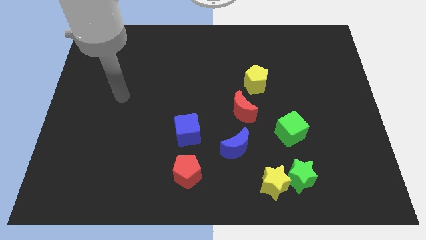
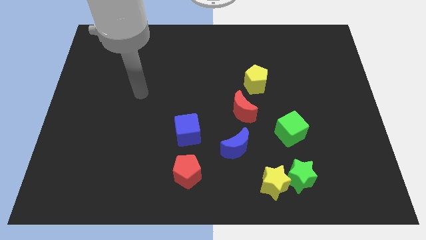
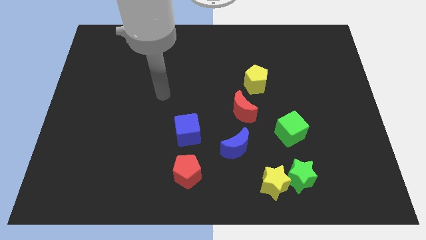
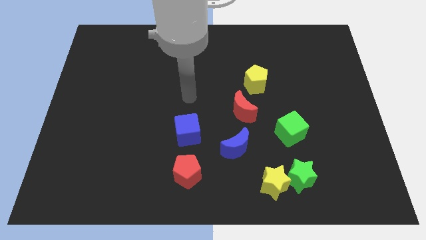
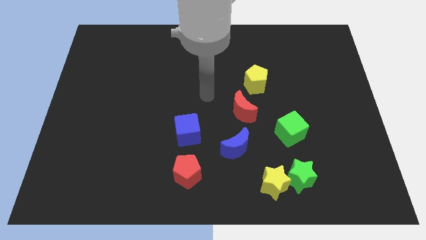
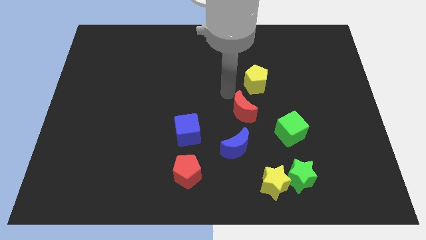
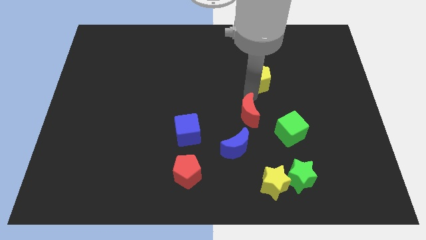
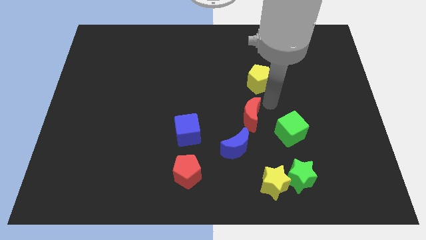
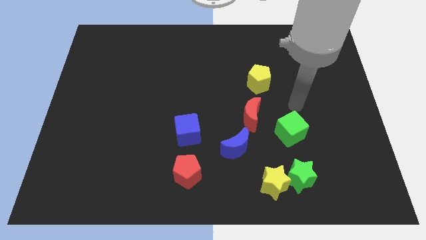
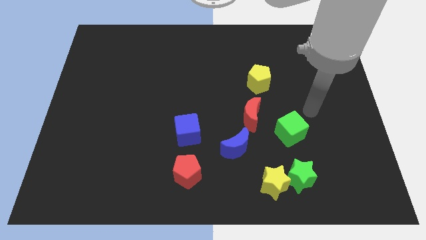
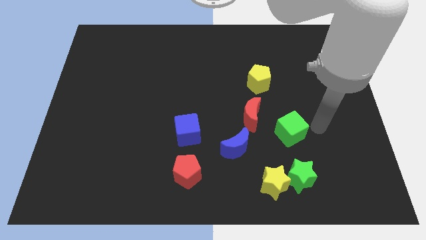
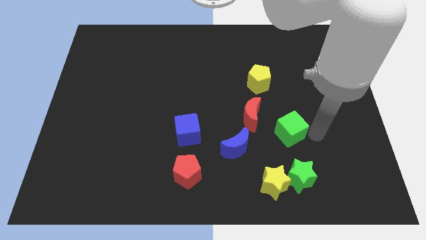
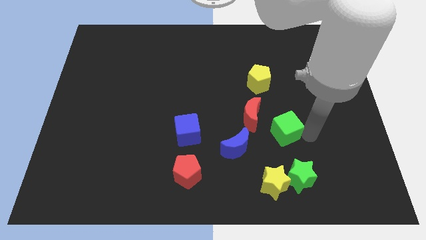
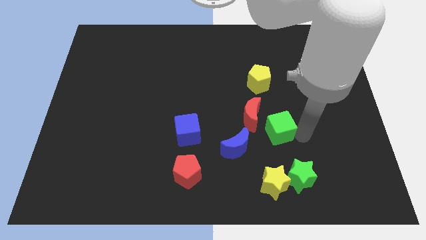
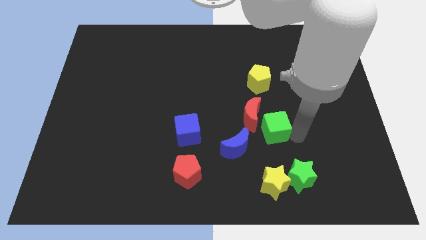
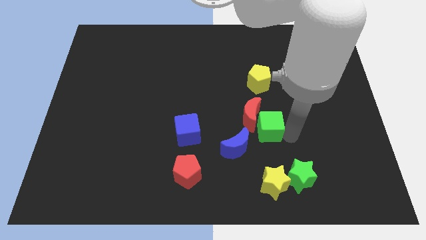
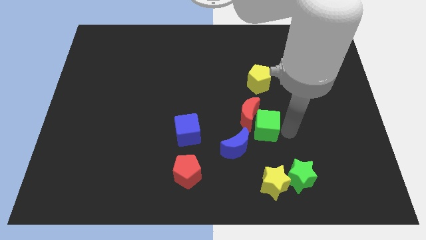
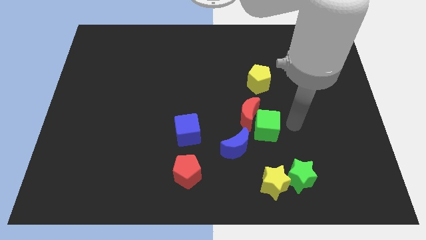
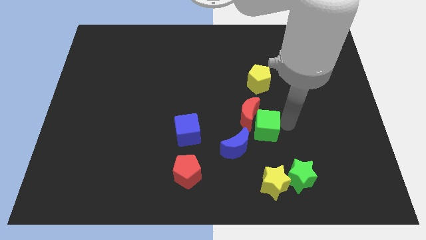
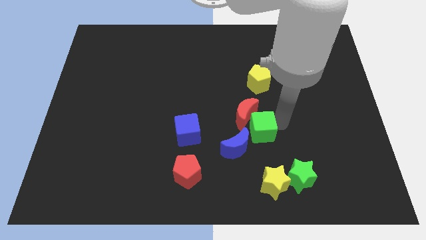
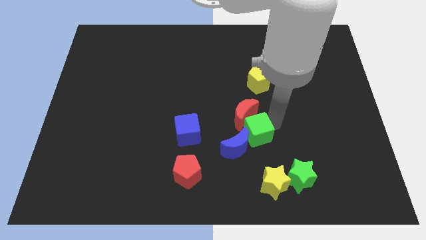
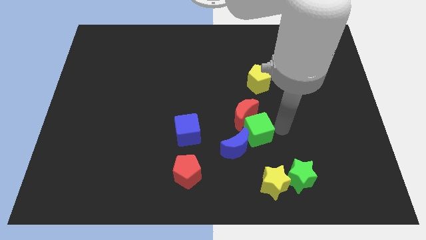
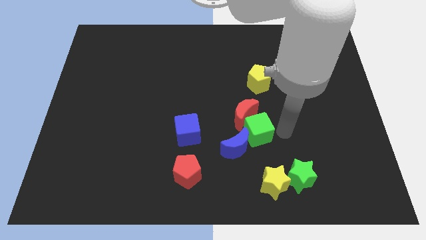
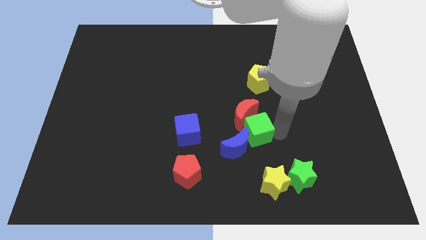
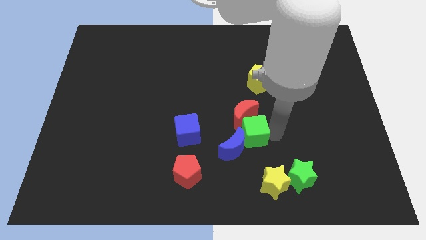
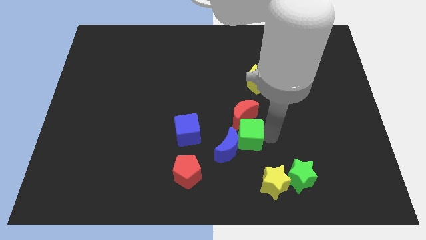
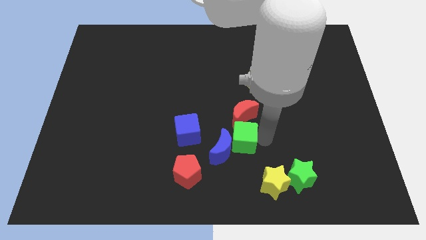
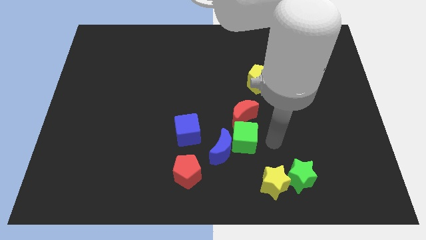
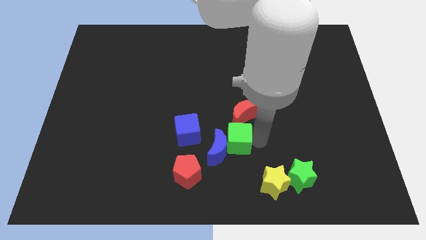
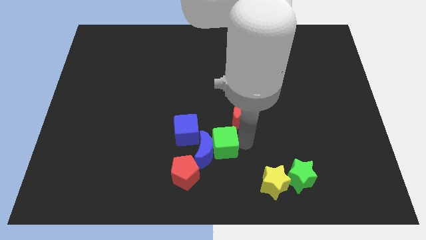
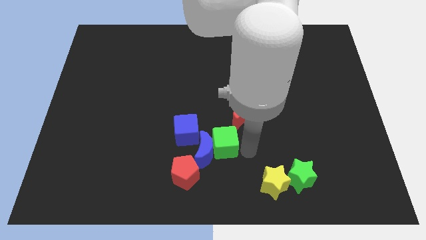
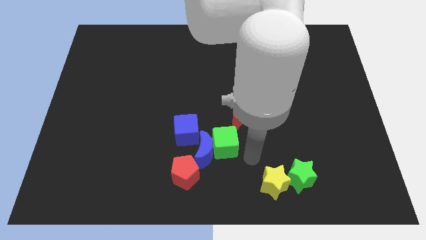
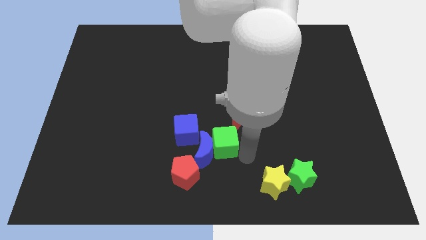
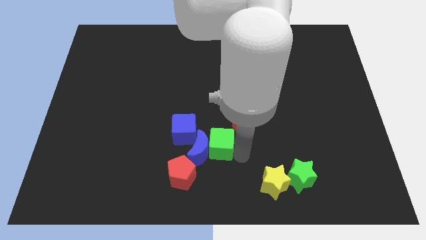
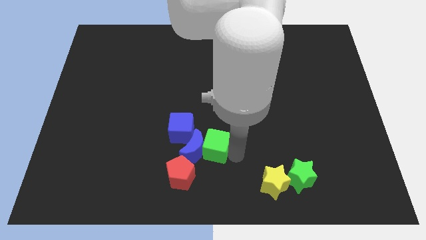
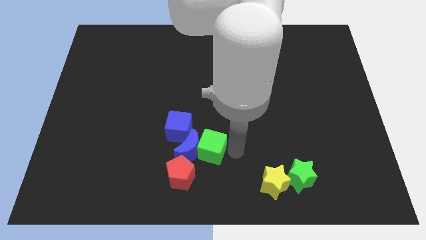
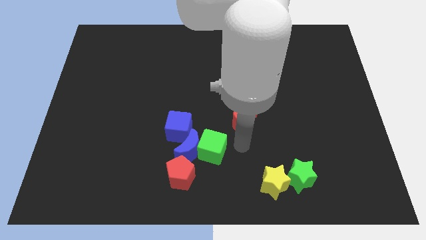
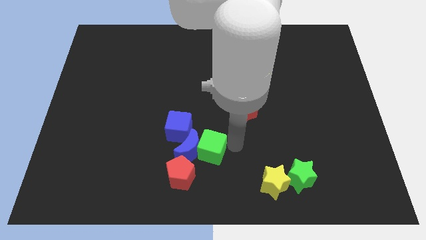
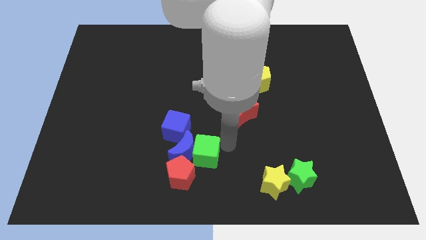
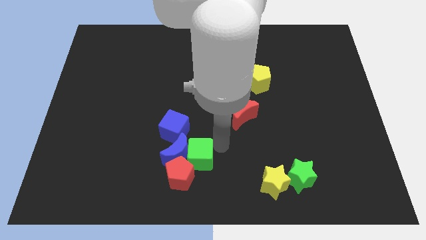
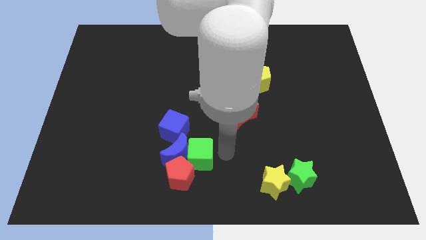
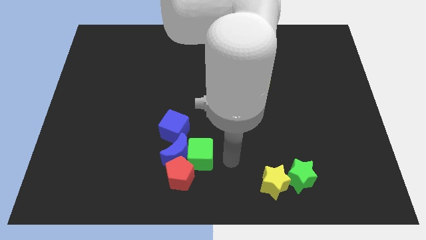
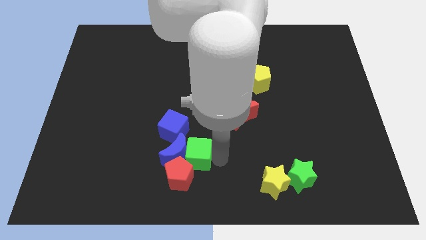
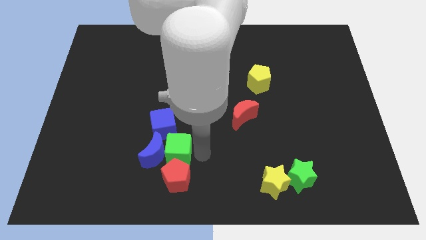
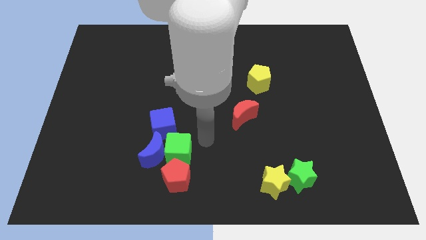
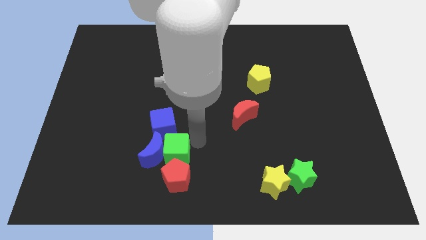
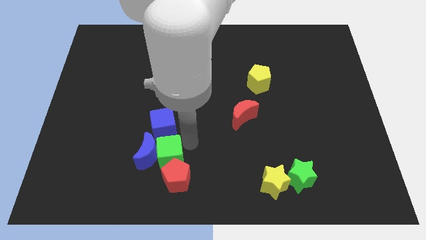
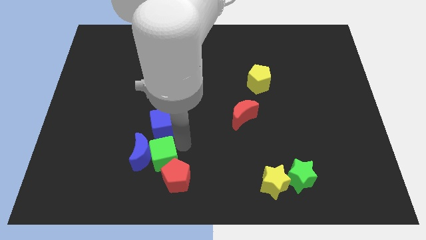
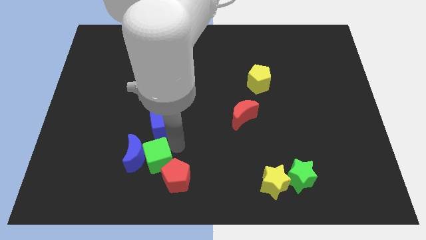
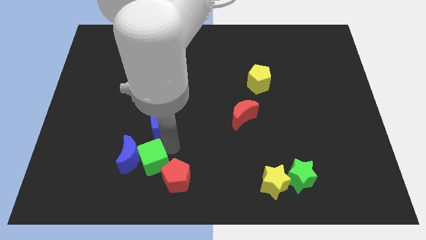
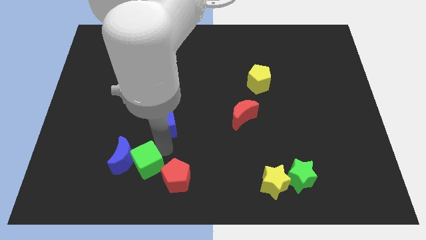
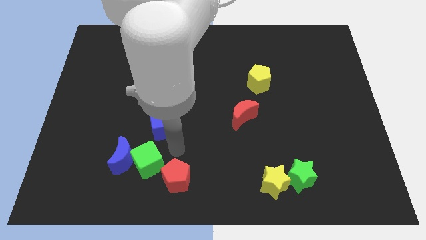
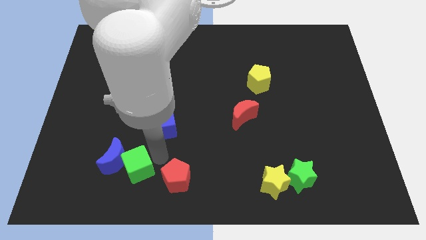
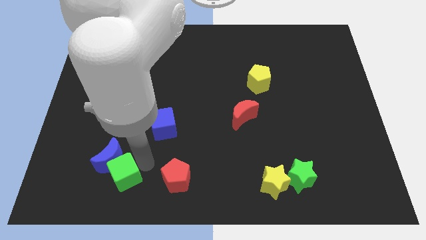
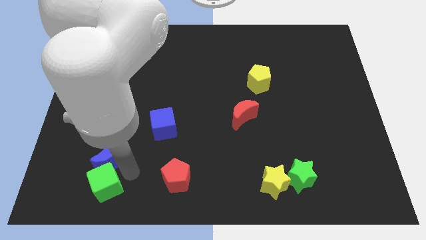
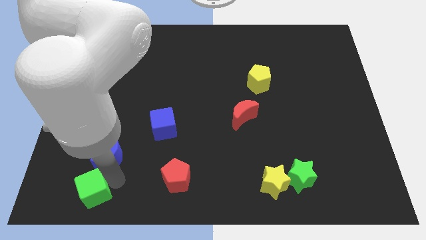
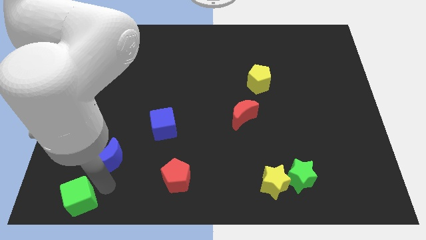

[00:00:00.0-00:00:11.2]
push the green cube to the bottom left corner
